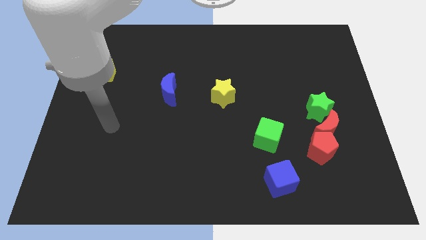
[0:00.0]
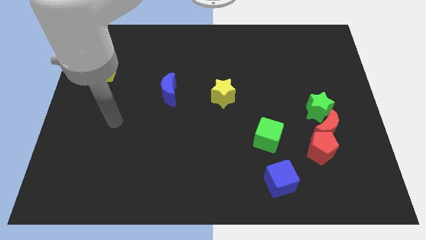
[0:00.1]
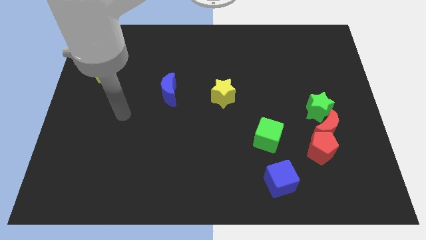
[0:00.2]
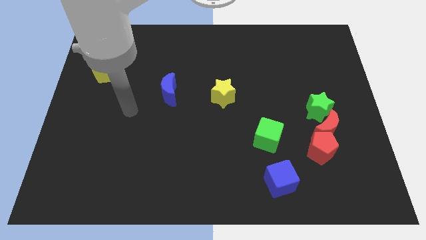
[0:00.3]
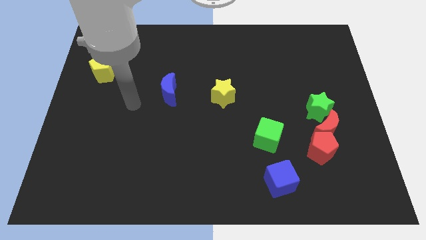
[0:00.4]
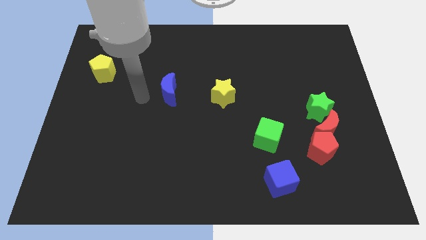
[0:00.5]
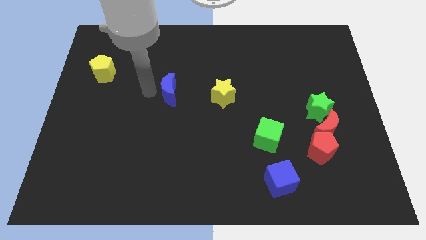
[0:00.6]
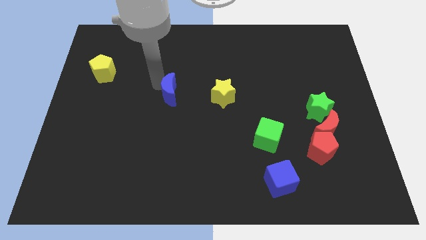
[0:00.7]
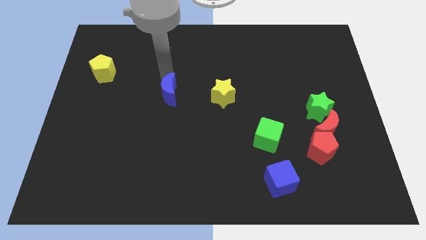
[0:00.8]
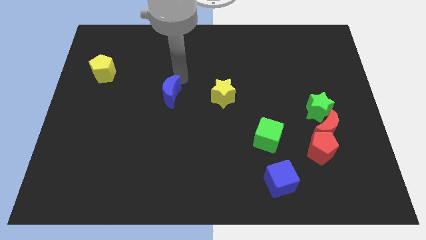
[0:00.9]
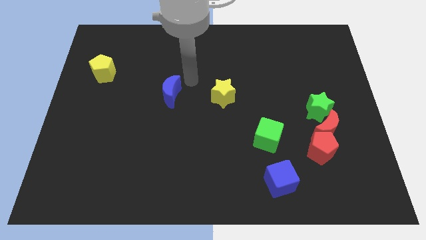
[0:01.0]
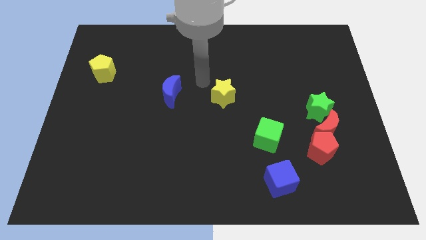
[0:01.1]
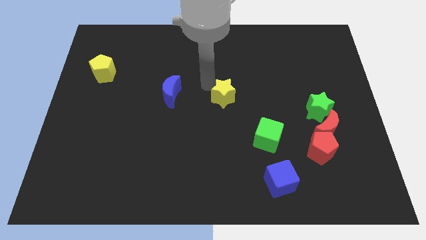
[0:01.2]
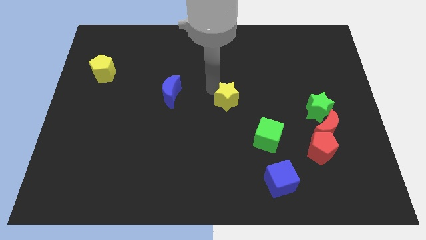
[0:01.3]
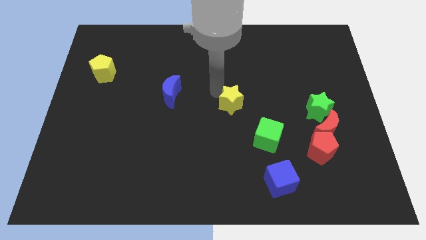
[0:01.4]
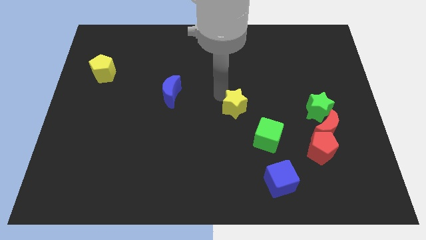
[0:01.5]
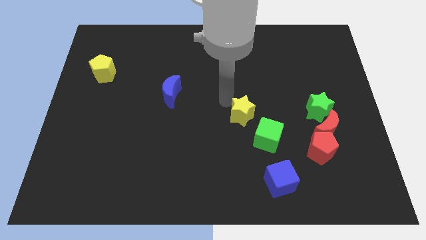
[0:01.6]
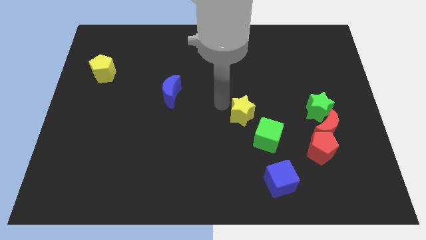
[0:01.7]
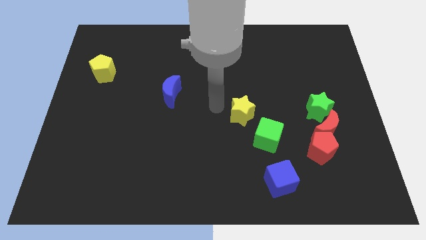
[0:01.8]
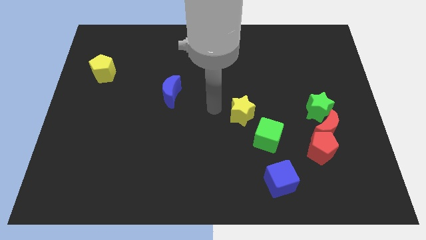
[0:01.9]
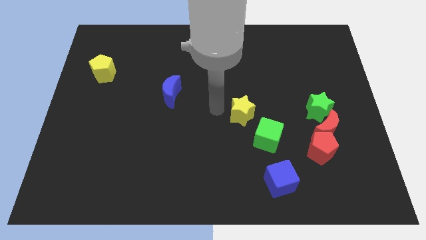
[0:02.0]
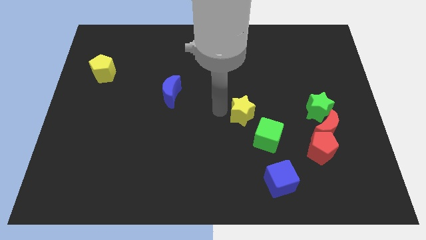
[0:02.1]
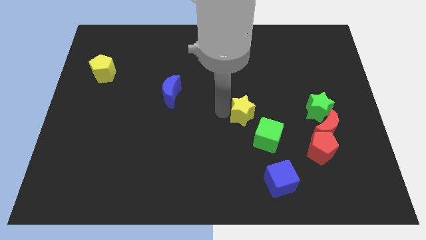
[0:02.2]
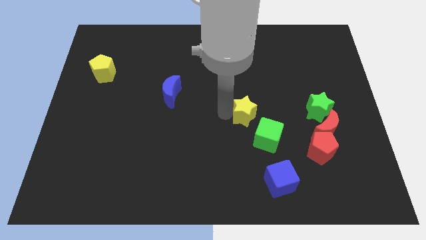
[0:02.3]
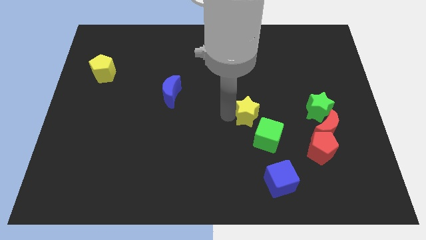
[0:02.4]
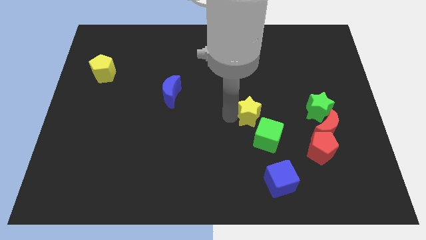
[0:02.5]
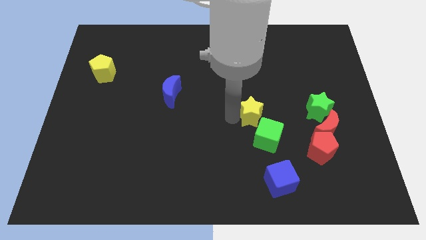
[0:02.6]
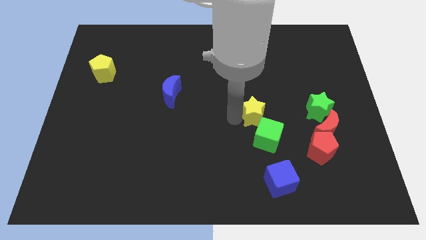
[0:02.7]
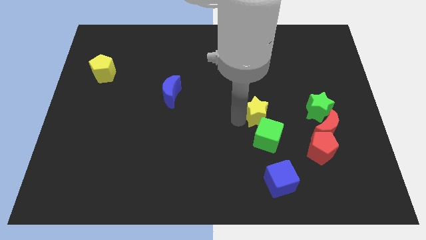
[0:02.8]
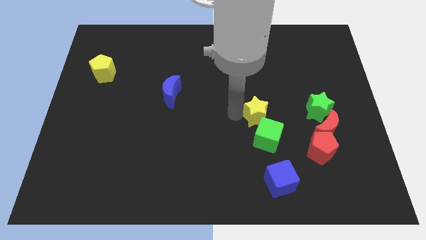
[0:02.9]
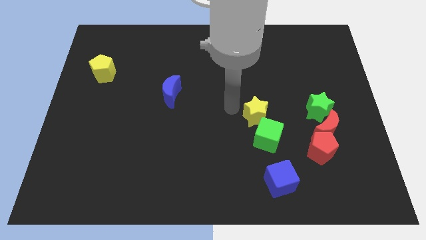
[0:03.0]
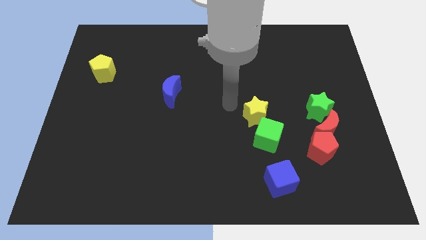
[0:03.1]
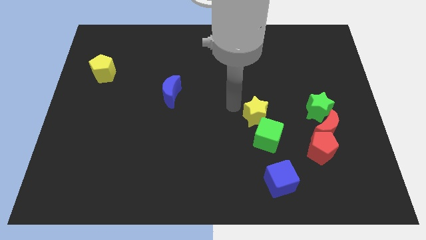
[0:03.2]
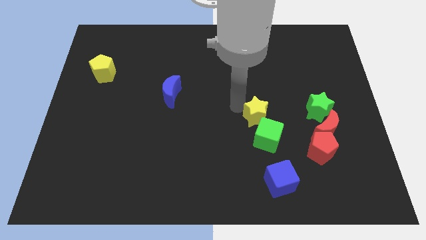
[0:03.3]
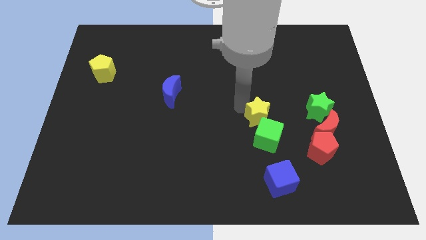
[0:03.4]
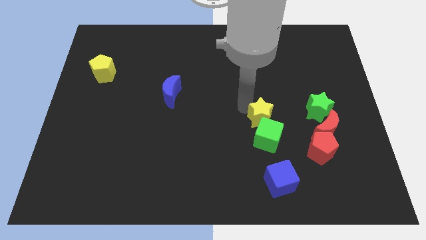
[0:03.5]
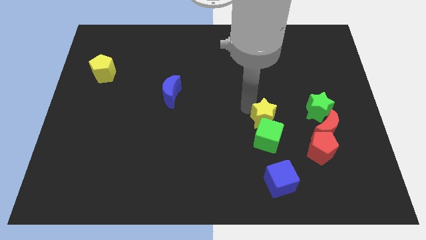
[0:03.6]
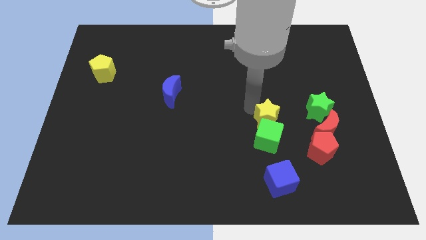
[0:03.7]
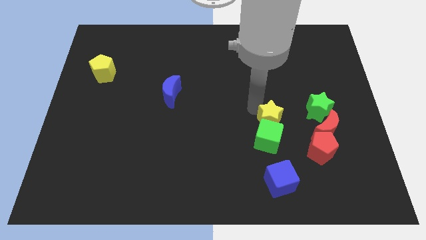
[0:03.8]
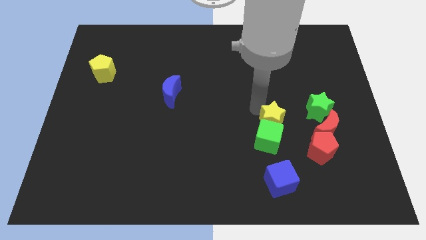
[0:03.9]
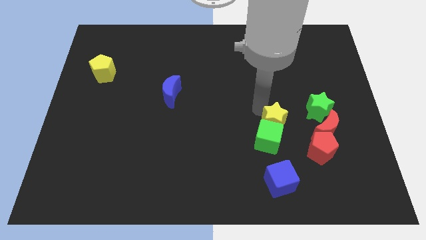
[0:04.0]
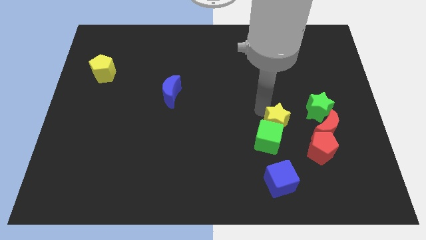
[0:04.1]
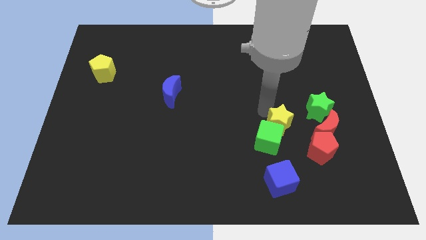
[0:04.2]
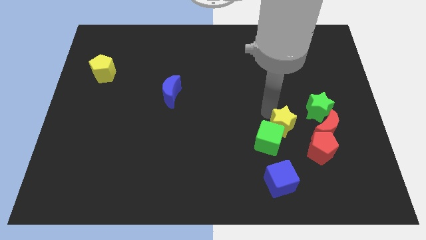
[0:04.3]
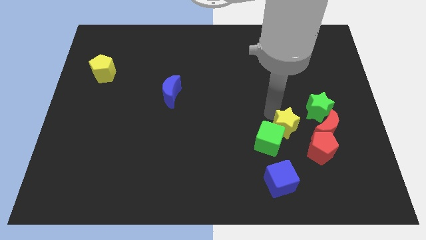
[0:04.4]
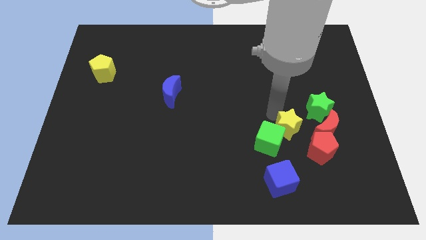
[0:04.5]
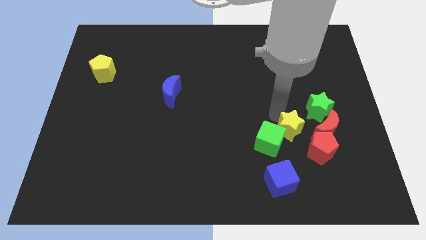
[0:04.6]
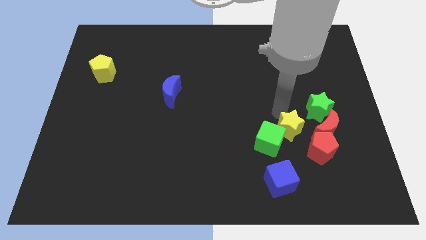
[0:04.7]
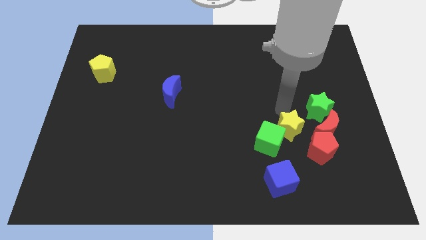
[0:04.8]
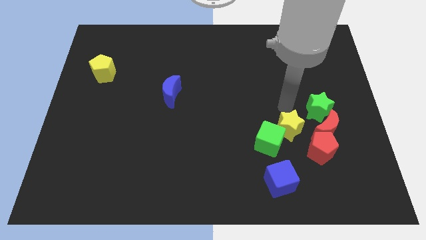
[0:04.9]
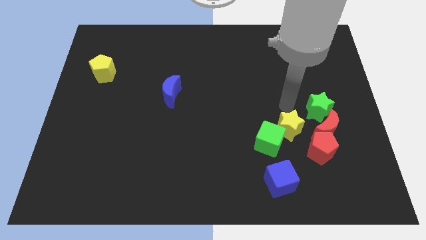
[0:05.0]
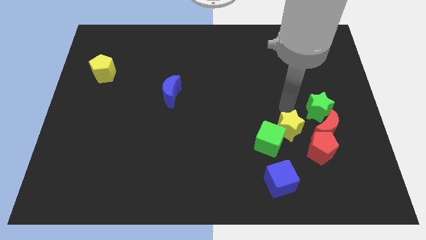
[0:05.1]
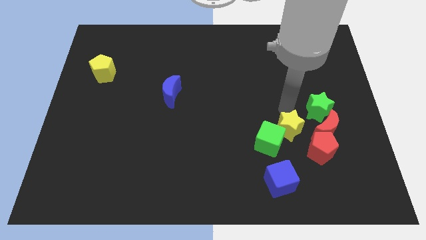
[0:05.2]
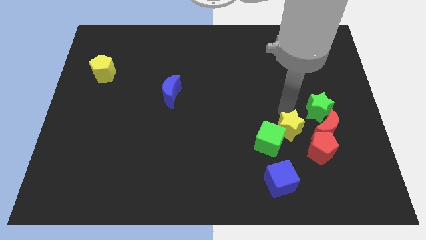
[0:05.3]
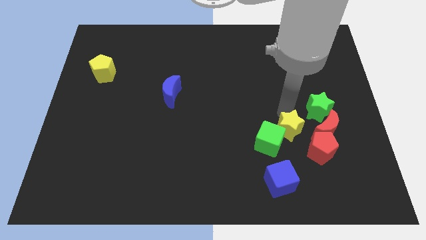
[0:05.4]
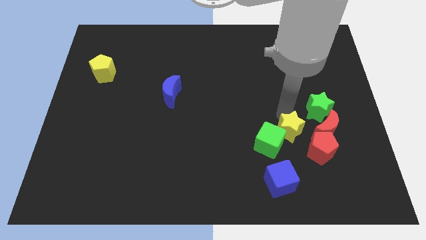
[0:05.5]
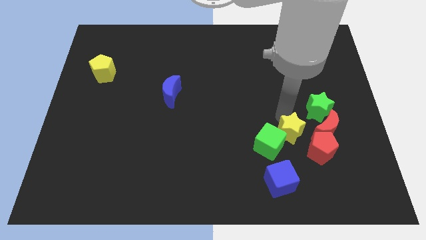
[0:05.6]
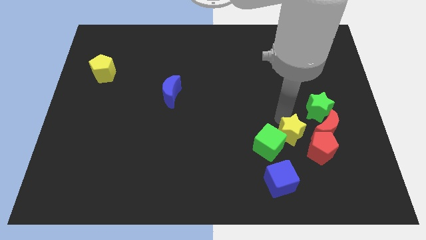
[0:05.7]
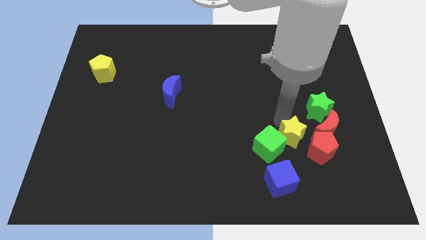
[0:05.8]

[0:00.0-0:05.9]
slide the yellow star to the bottom left of the red moon

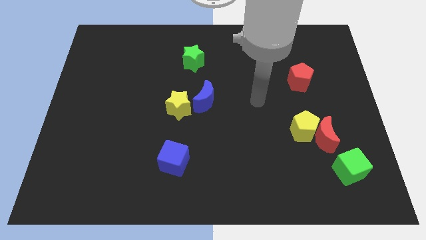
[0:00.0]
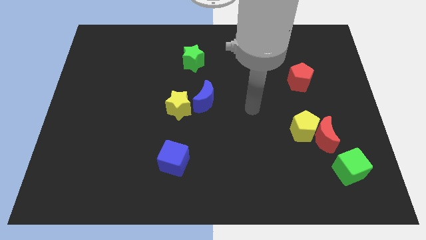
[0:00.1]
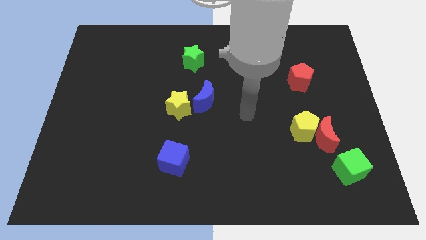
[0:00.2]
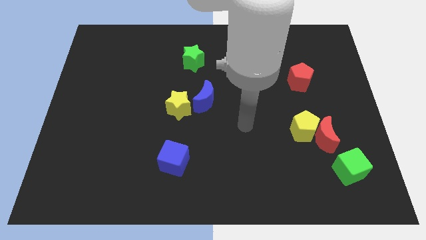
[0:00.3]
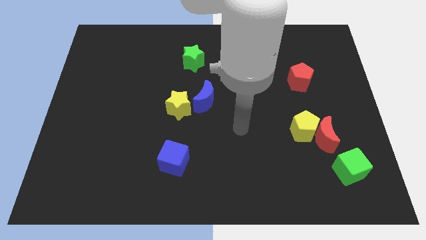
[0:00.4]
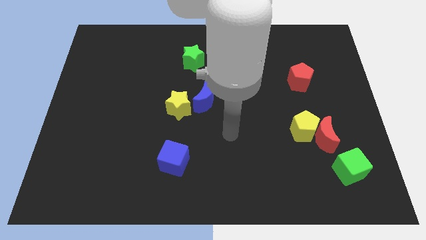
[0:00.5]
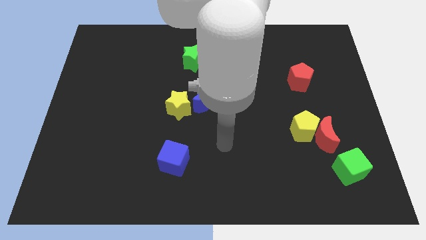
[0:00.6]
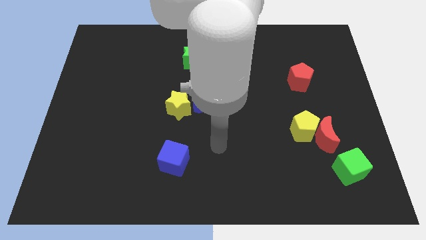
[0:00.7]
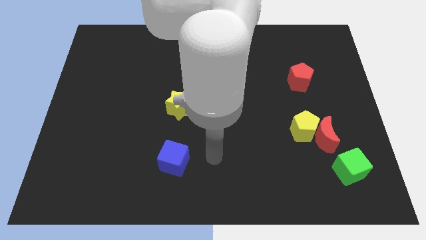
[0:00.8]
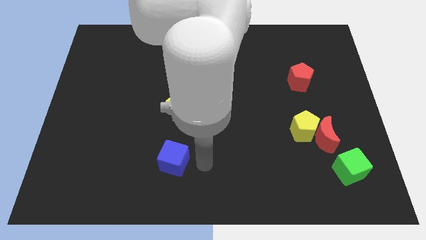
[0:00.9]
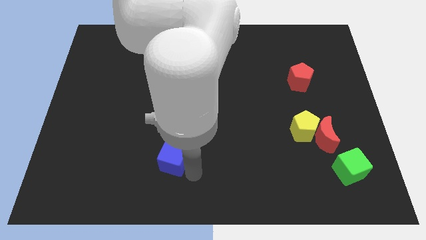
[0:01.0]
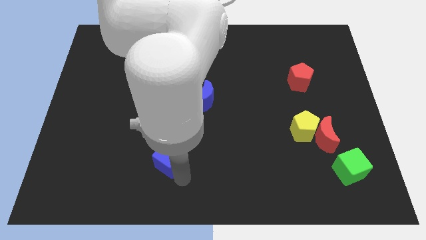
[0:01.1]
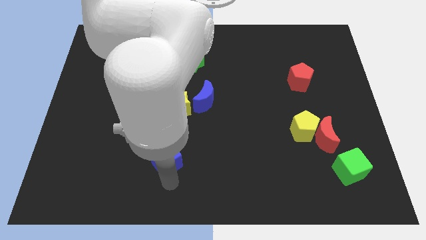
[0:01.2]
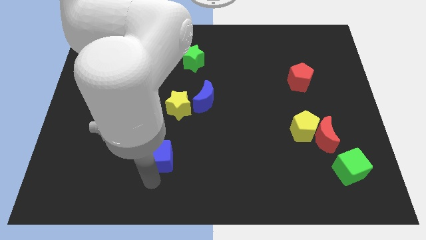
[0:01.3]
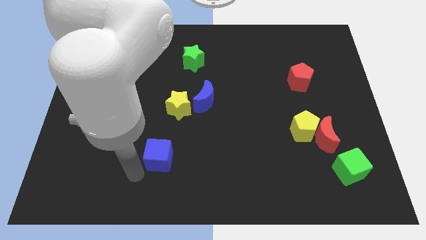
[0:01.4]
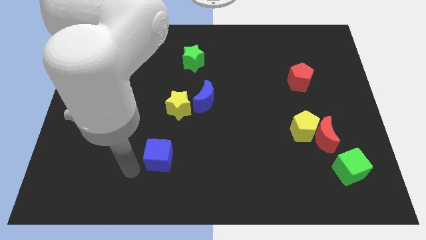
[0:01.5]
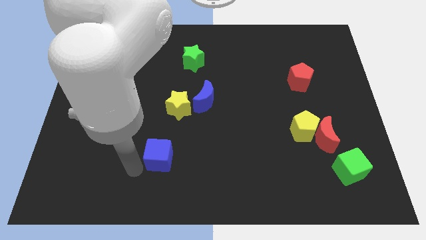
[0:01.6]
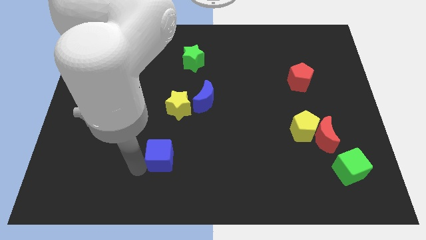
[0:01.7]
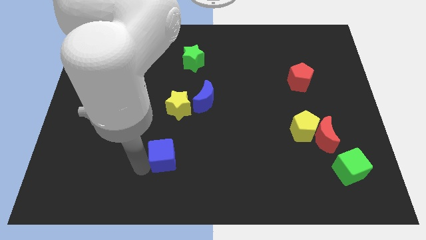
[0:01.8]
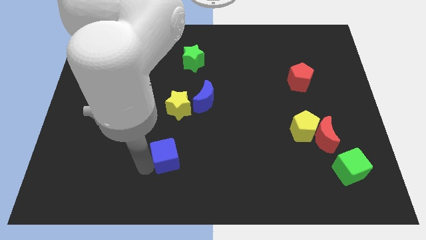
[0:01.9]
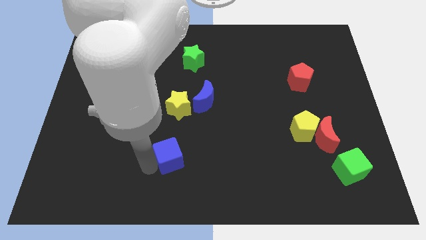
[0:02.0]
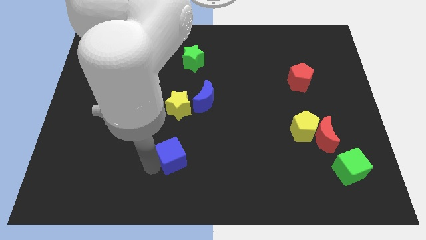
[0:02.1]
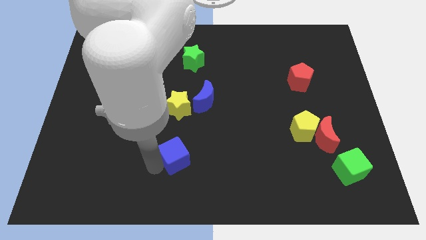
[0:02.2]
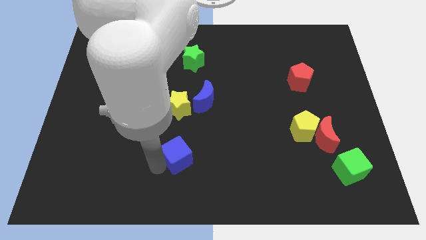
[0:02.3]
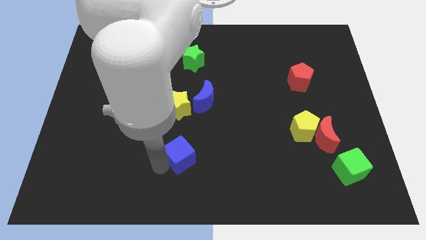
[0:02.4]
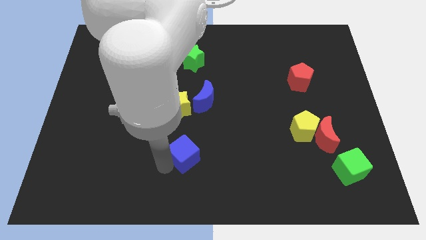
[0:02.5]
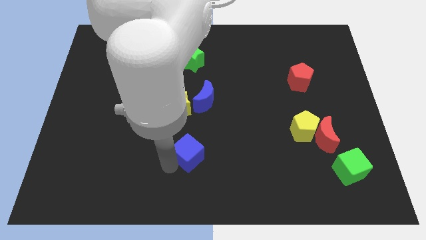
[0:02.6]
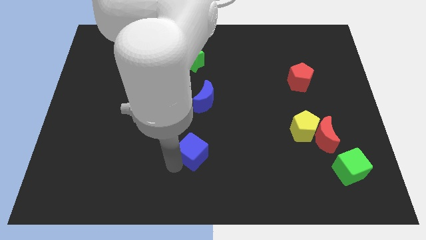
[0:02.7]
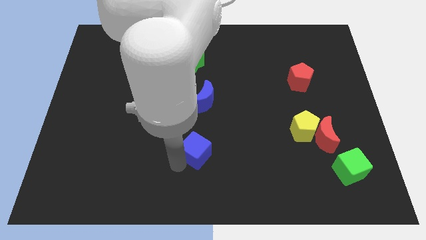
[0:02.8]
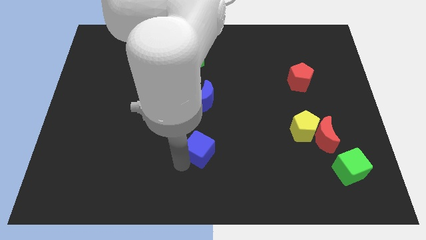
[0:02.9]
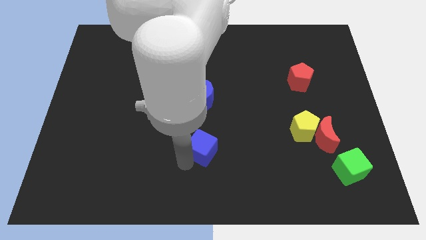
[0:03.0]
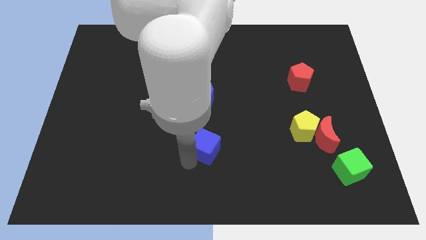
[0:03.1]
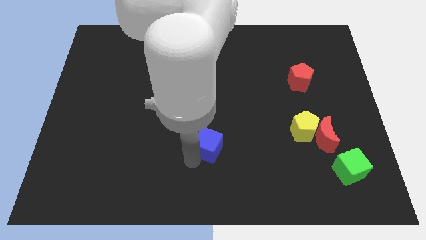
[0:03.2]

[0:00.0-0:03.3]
move the blue cube diagonally down and to the right of the yellow star
